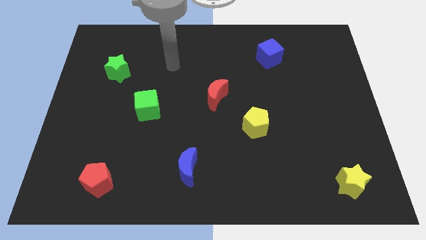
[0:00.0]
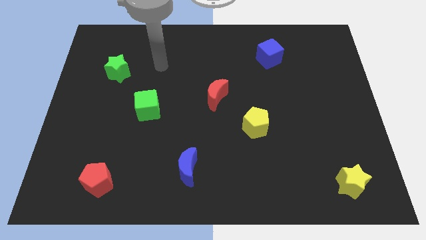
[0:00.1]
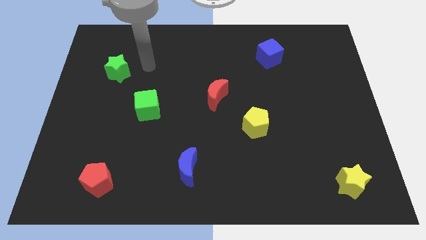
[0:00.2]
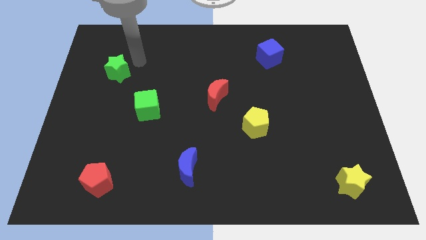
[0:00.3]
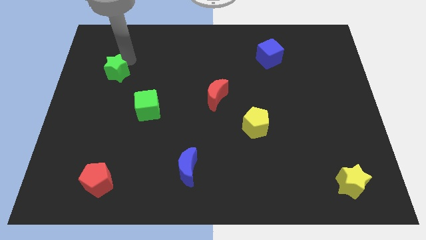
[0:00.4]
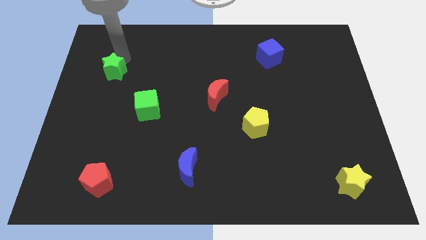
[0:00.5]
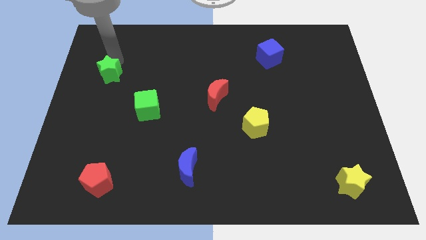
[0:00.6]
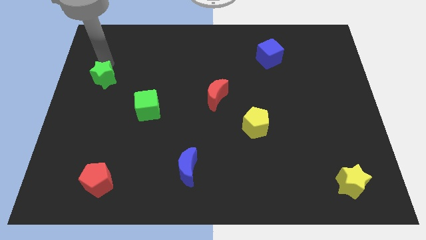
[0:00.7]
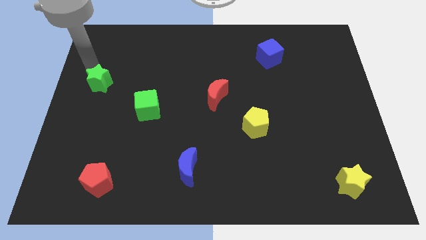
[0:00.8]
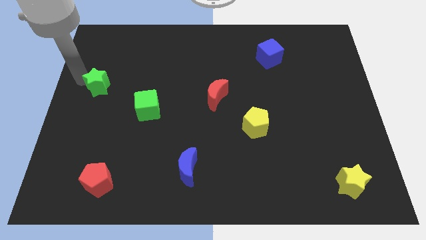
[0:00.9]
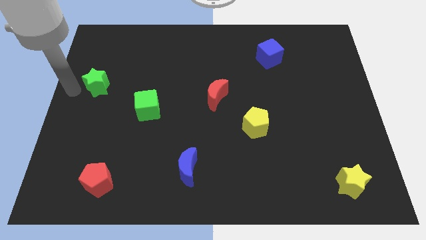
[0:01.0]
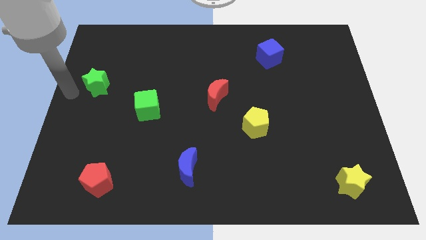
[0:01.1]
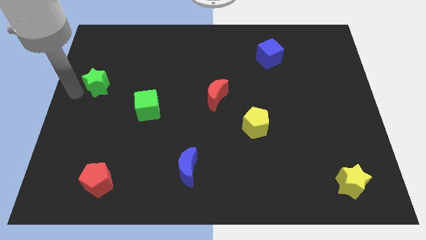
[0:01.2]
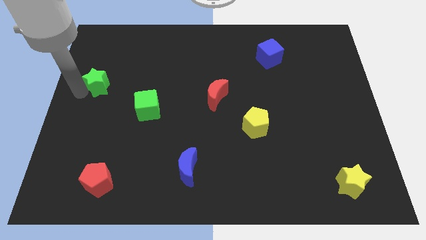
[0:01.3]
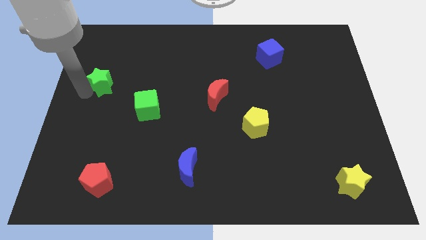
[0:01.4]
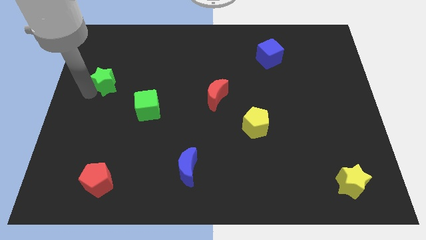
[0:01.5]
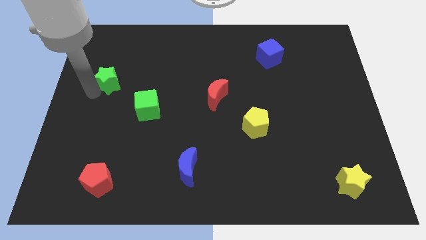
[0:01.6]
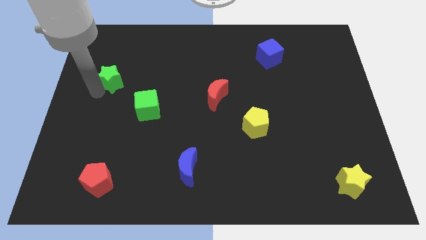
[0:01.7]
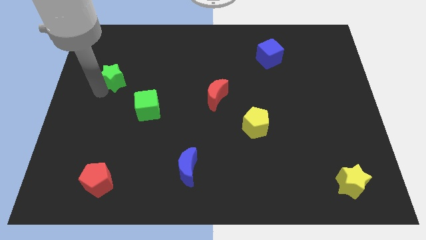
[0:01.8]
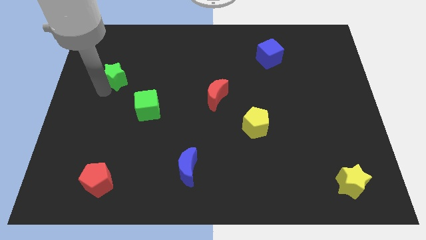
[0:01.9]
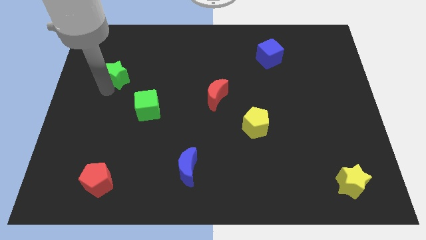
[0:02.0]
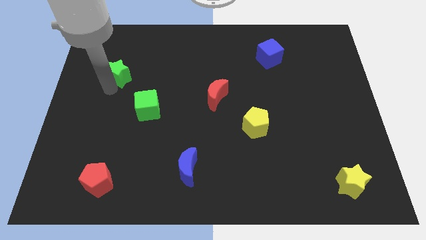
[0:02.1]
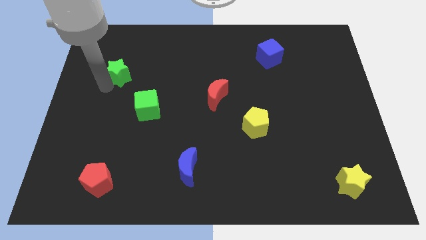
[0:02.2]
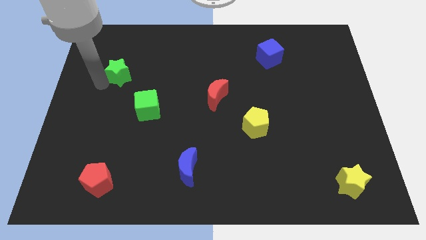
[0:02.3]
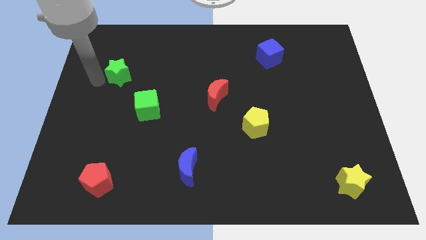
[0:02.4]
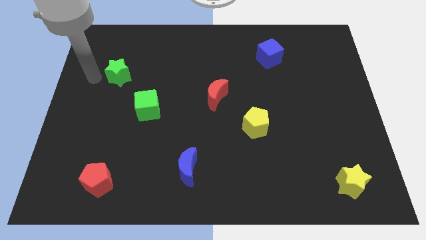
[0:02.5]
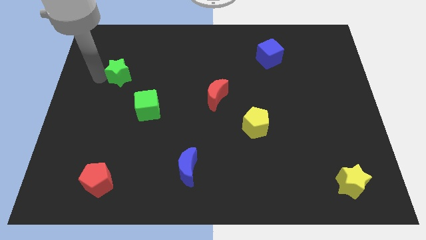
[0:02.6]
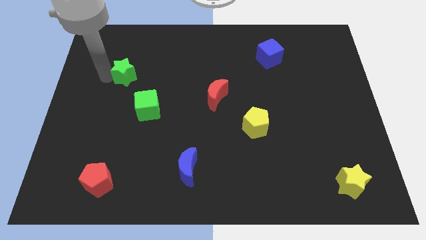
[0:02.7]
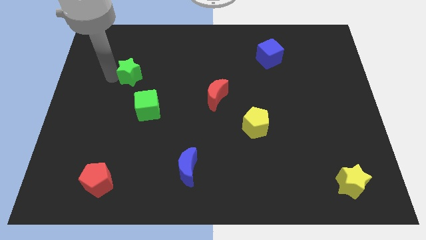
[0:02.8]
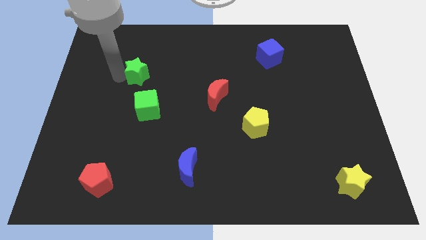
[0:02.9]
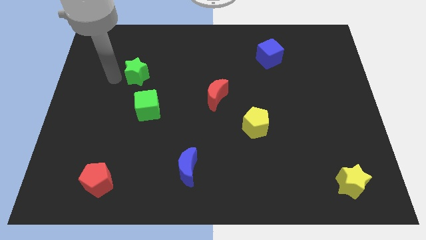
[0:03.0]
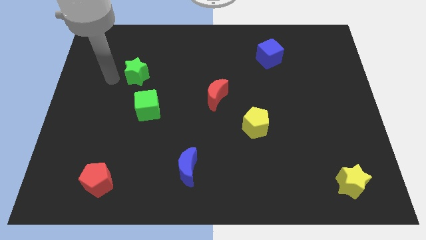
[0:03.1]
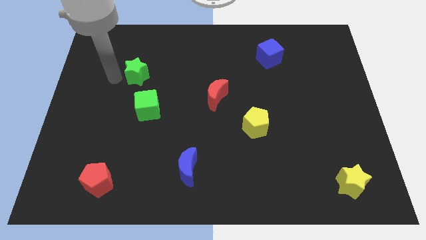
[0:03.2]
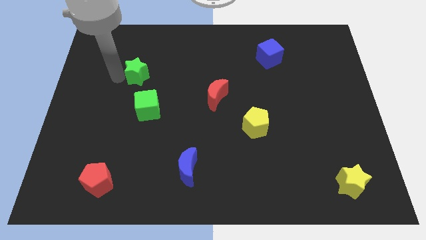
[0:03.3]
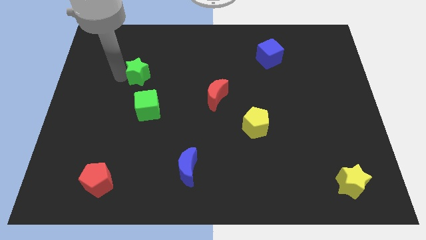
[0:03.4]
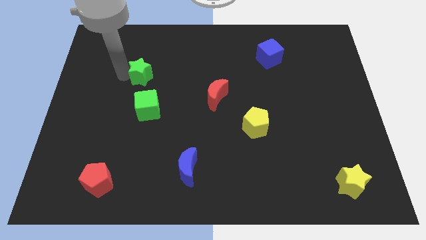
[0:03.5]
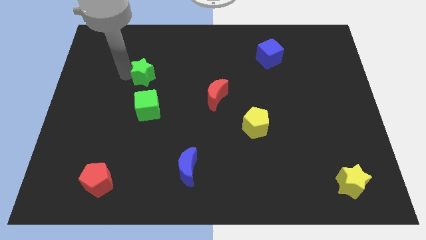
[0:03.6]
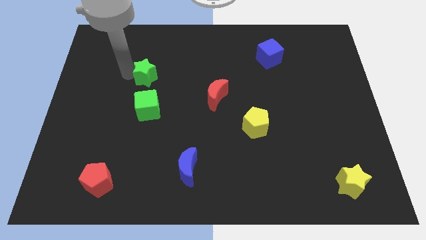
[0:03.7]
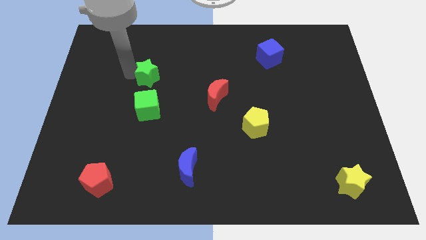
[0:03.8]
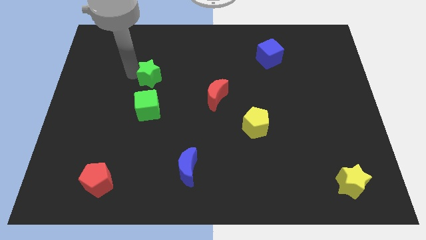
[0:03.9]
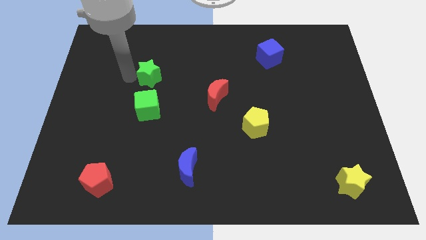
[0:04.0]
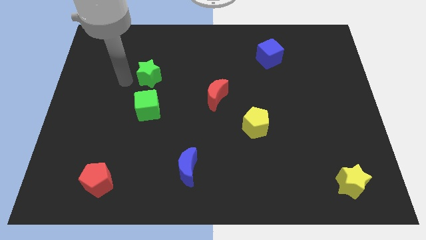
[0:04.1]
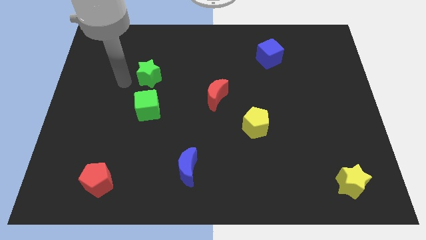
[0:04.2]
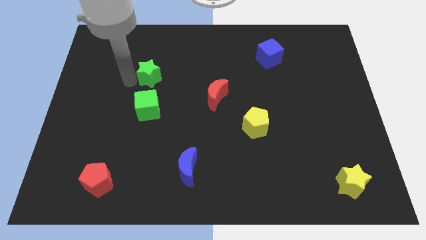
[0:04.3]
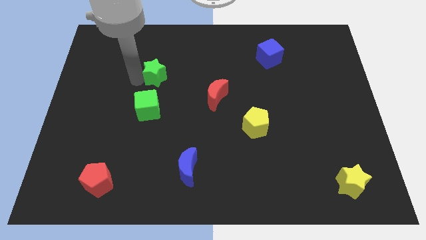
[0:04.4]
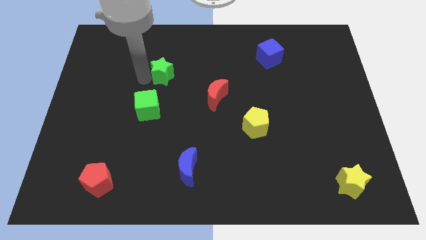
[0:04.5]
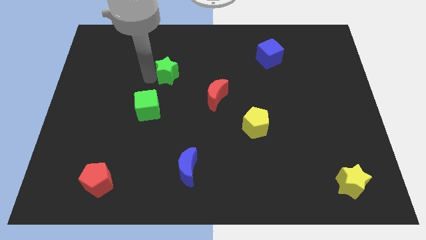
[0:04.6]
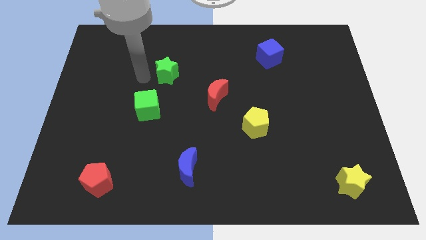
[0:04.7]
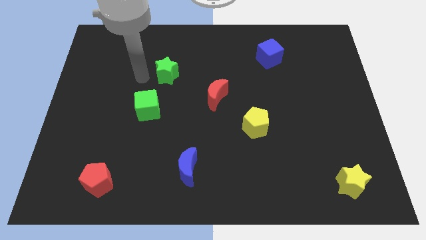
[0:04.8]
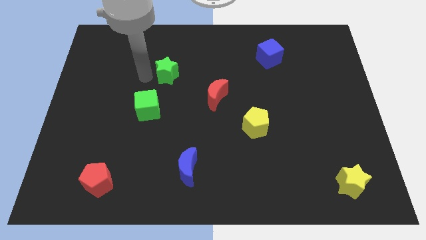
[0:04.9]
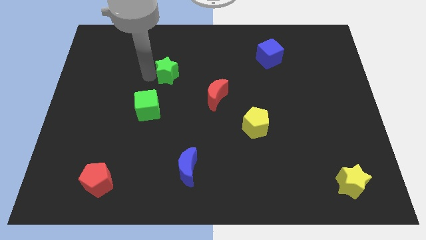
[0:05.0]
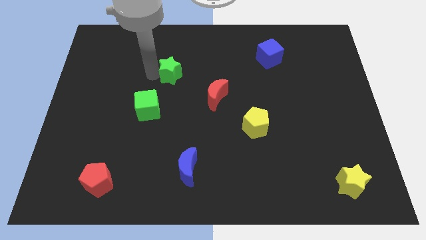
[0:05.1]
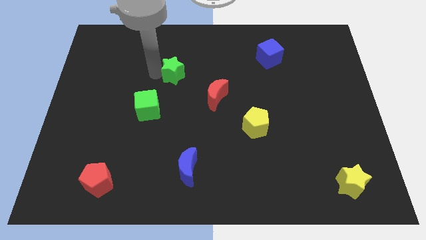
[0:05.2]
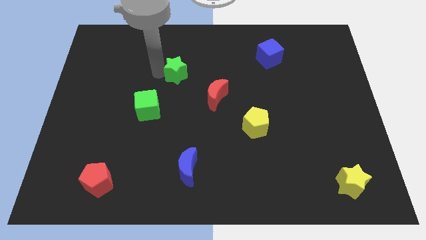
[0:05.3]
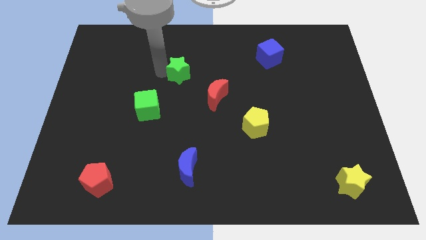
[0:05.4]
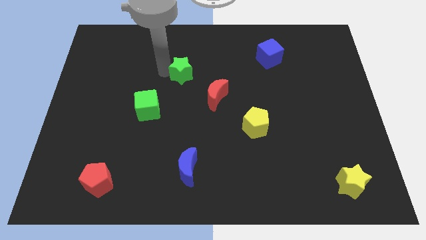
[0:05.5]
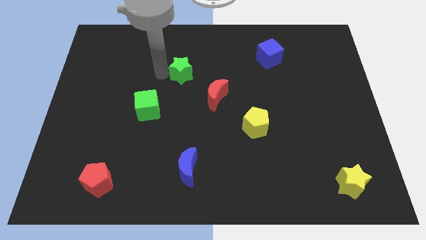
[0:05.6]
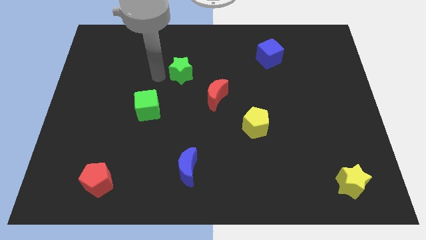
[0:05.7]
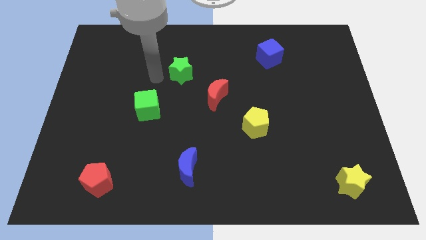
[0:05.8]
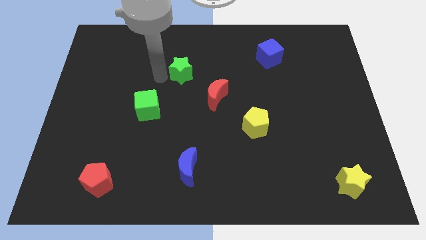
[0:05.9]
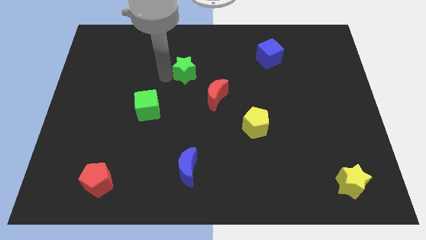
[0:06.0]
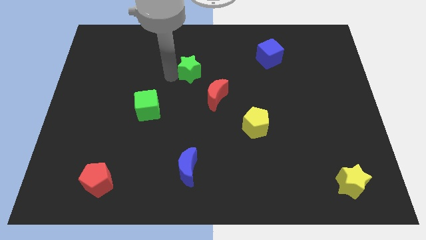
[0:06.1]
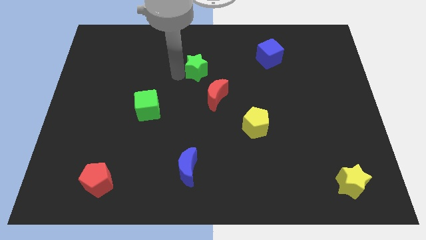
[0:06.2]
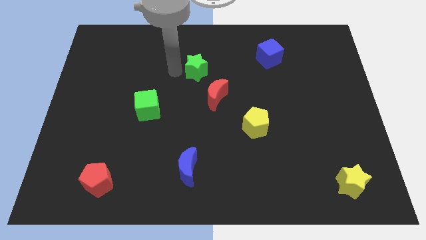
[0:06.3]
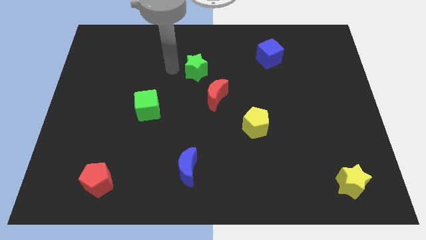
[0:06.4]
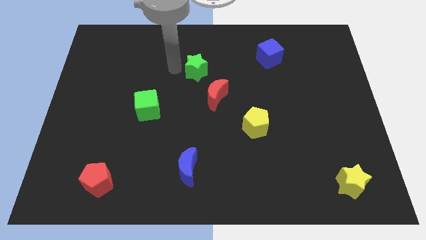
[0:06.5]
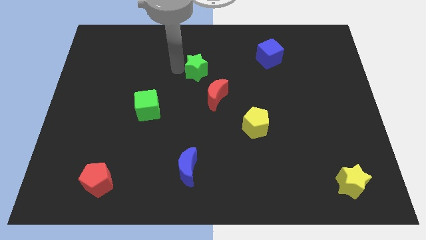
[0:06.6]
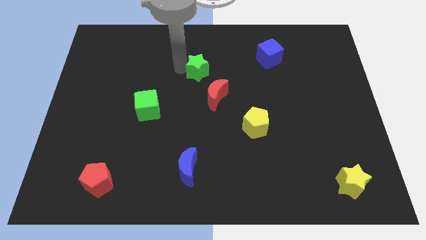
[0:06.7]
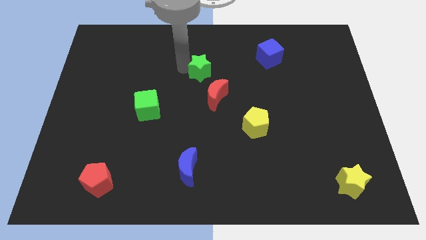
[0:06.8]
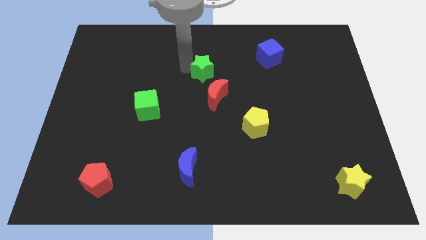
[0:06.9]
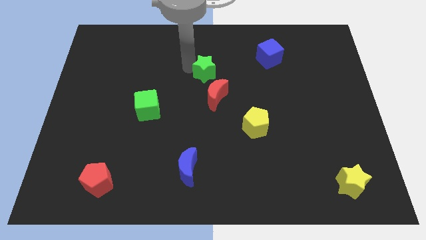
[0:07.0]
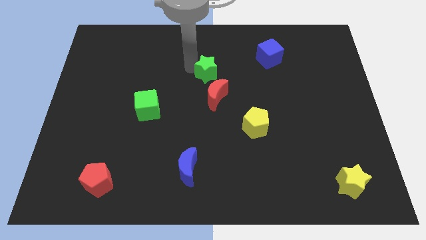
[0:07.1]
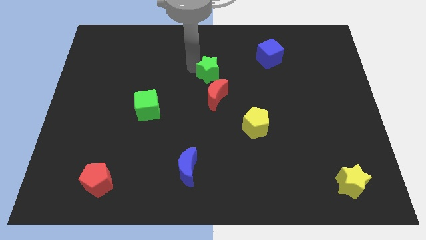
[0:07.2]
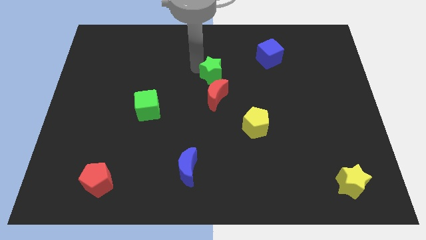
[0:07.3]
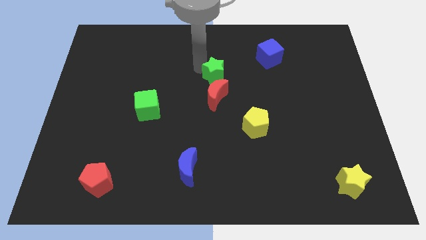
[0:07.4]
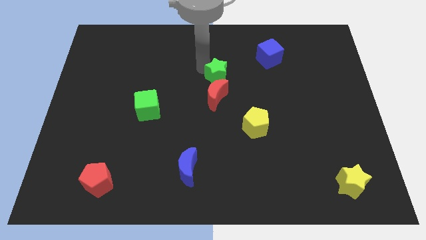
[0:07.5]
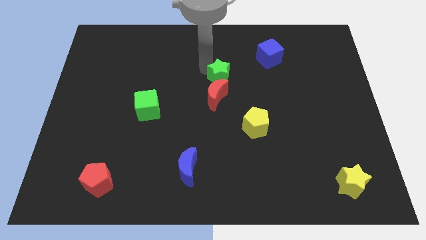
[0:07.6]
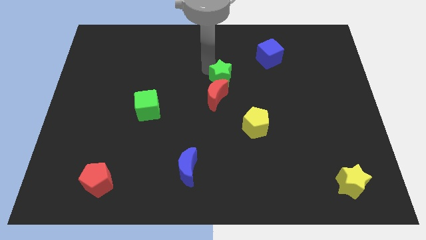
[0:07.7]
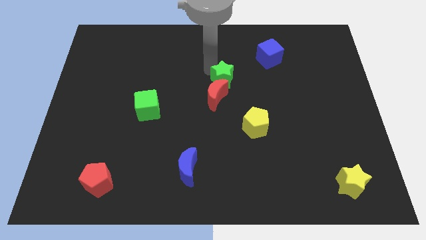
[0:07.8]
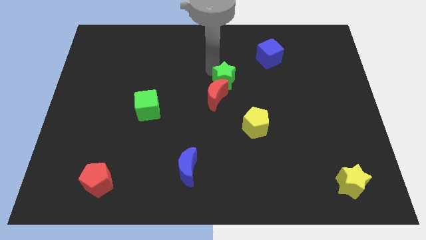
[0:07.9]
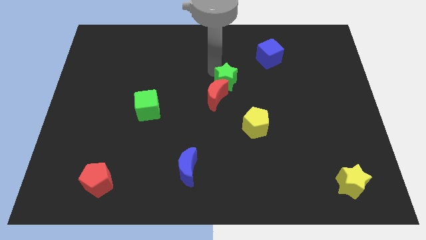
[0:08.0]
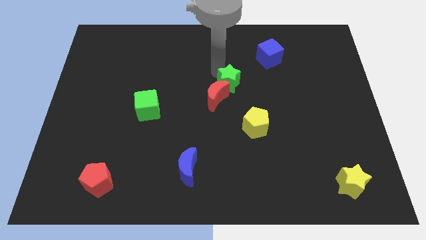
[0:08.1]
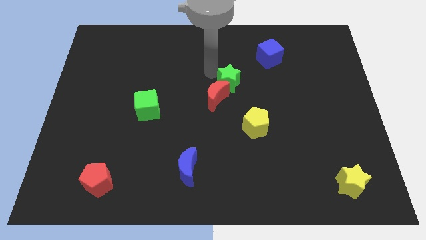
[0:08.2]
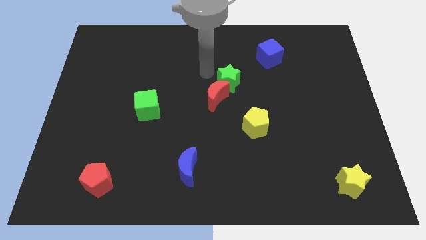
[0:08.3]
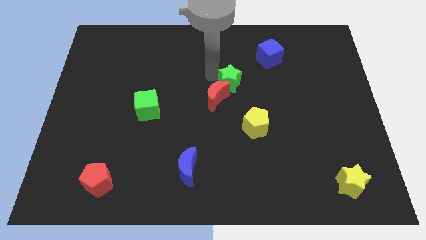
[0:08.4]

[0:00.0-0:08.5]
push the green star just right of the red moon
